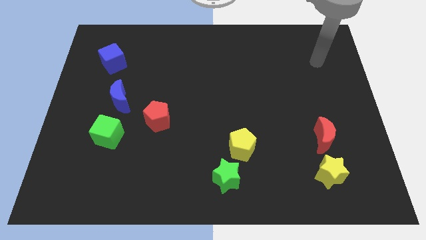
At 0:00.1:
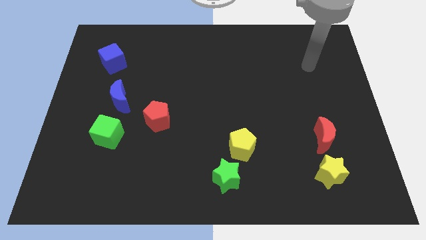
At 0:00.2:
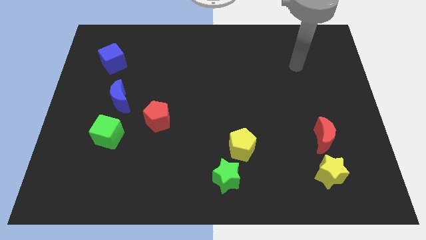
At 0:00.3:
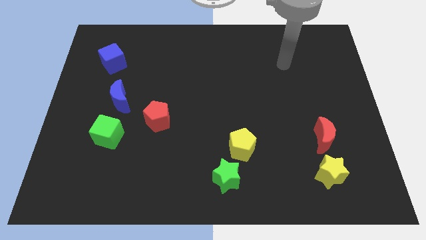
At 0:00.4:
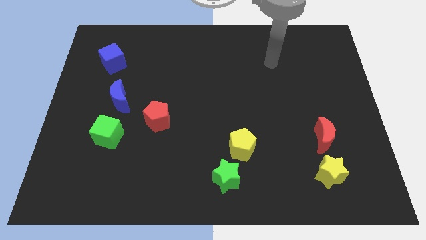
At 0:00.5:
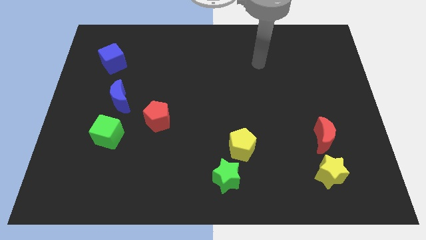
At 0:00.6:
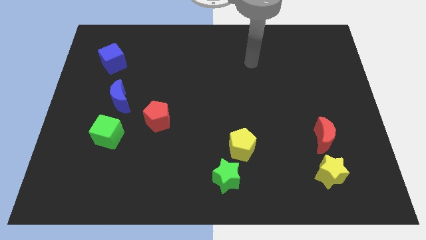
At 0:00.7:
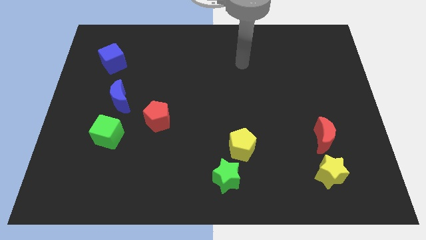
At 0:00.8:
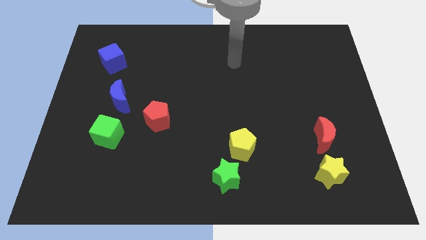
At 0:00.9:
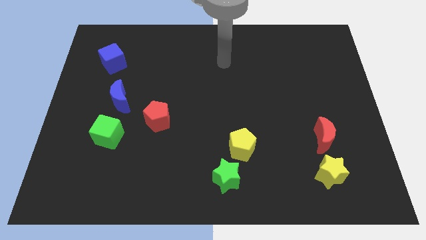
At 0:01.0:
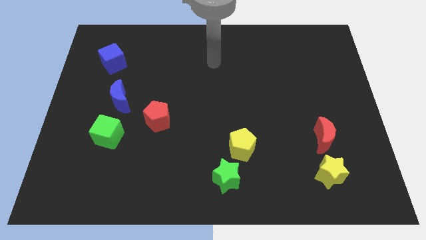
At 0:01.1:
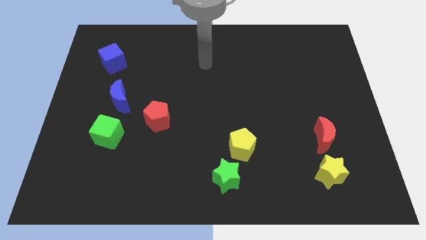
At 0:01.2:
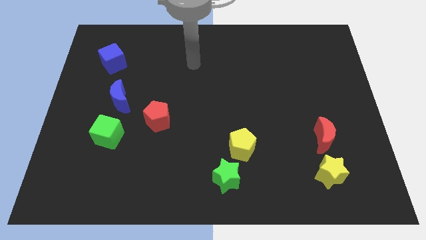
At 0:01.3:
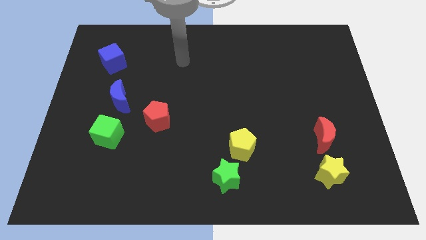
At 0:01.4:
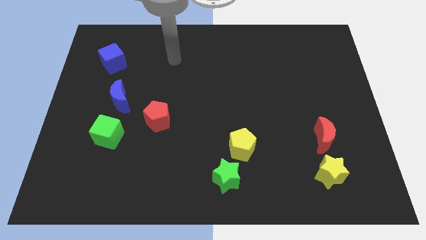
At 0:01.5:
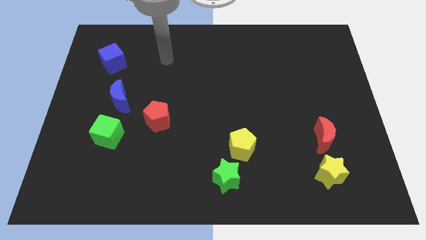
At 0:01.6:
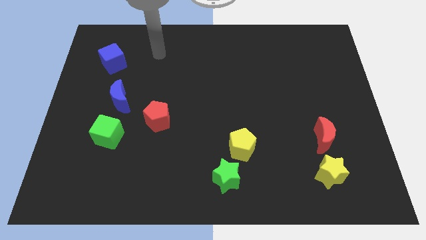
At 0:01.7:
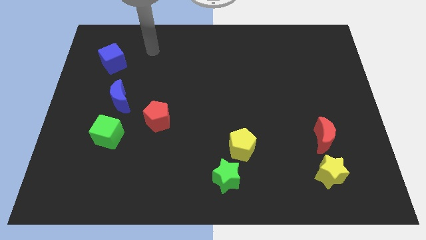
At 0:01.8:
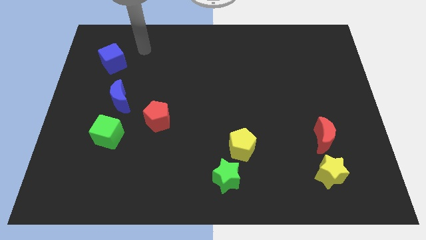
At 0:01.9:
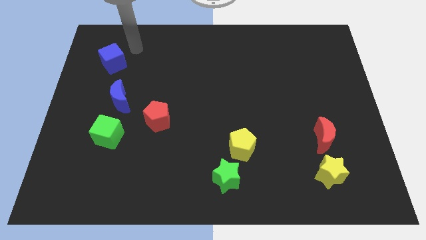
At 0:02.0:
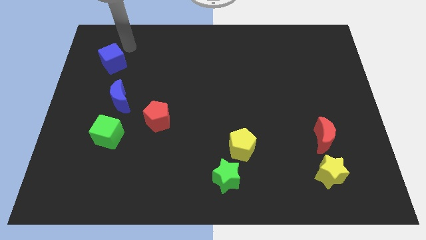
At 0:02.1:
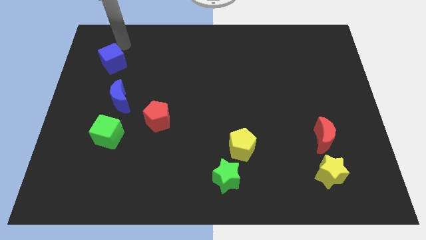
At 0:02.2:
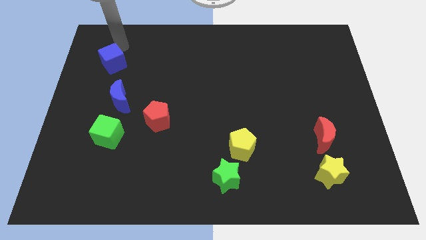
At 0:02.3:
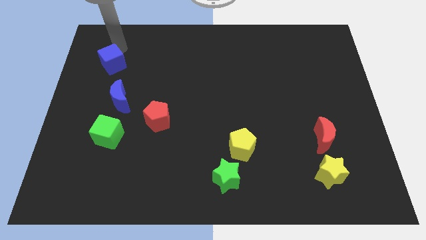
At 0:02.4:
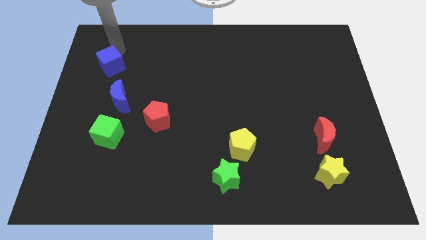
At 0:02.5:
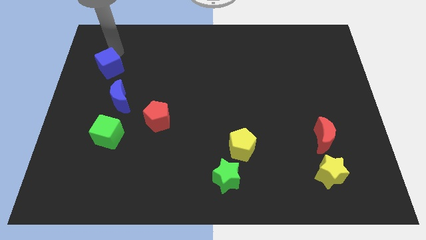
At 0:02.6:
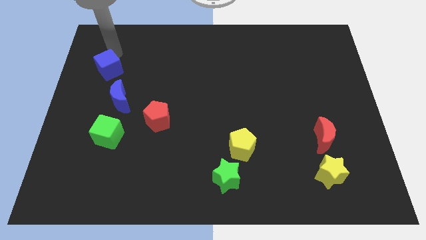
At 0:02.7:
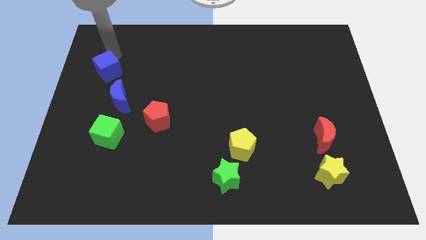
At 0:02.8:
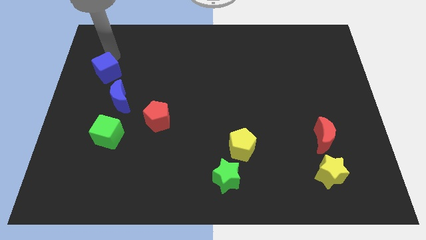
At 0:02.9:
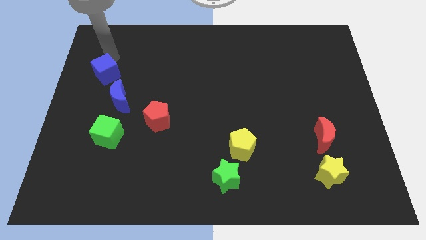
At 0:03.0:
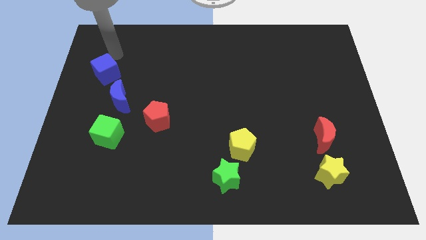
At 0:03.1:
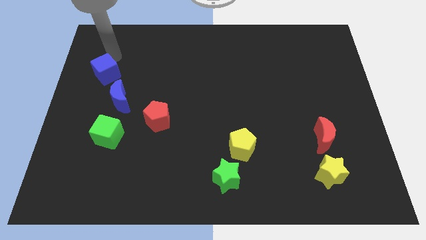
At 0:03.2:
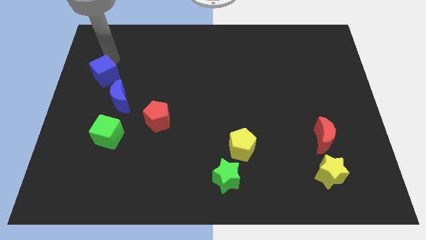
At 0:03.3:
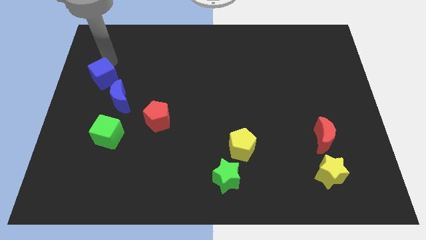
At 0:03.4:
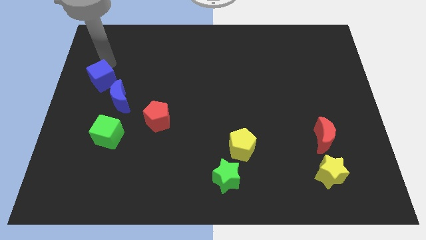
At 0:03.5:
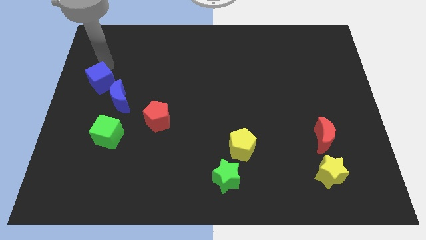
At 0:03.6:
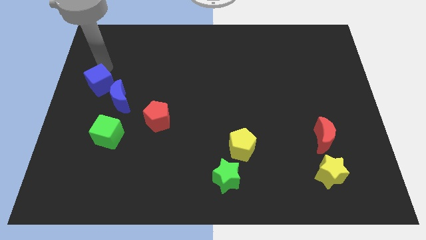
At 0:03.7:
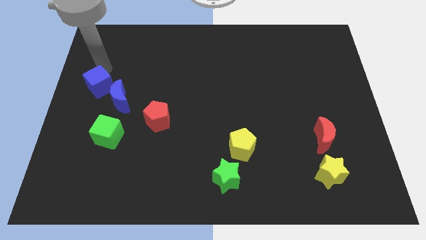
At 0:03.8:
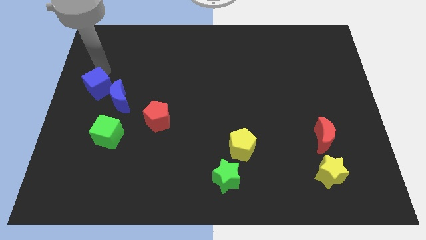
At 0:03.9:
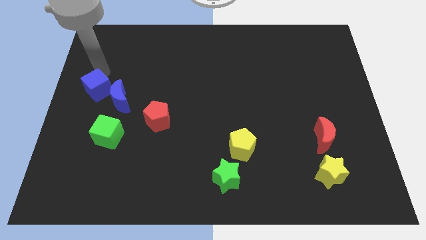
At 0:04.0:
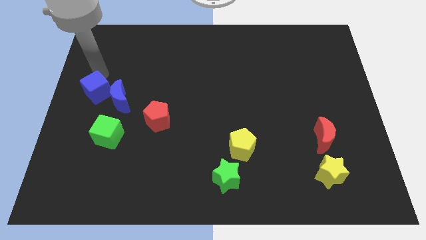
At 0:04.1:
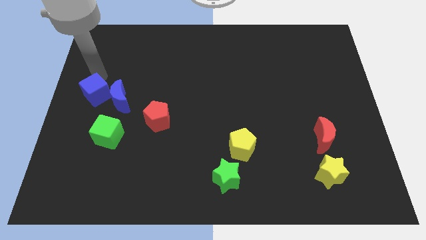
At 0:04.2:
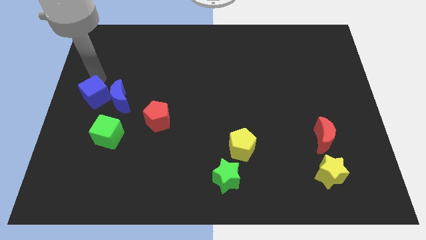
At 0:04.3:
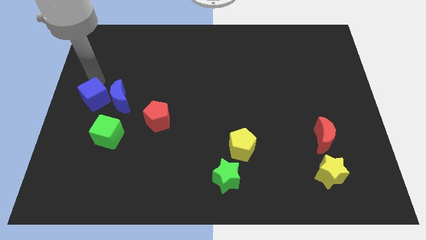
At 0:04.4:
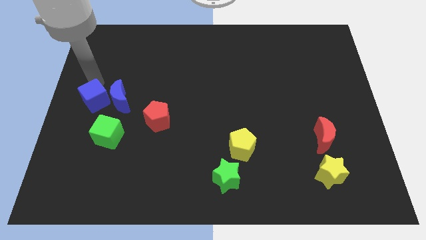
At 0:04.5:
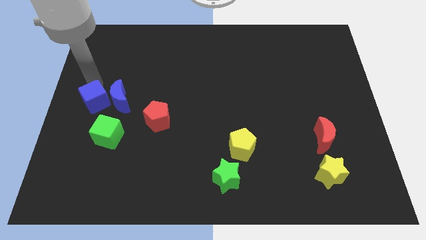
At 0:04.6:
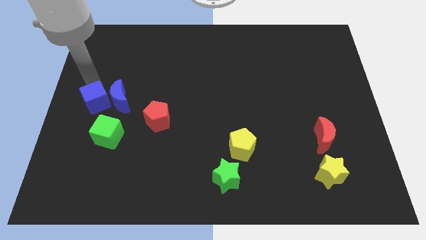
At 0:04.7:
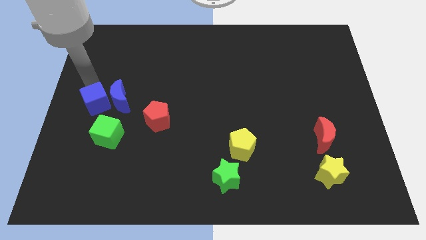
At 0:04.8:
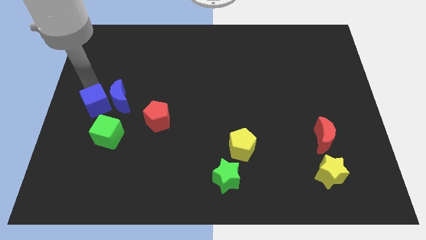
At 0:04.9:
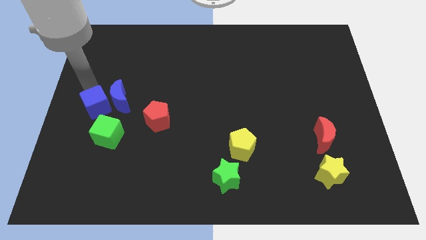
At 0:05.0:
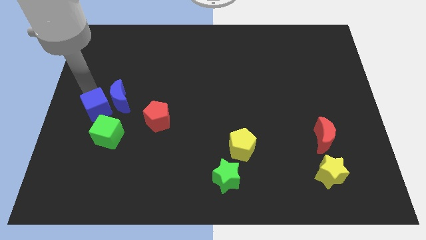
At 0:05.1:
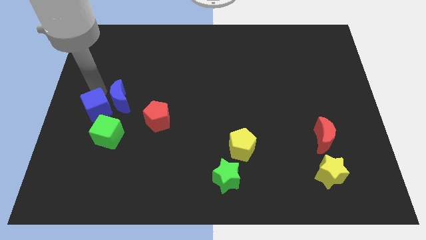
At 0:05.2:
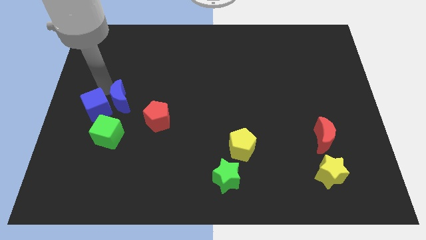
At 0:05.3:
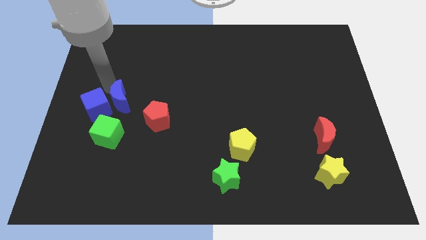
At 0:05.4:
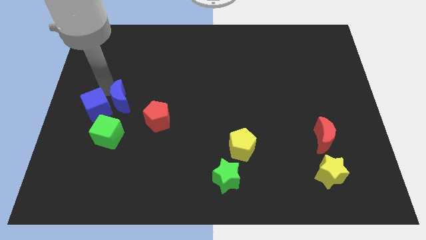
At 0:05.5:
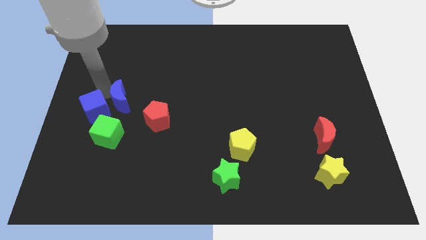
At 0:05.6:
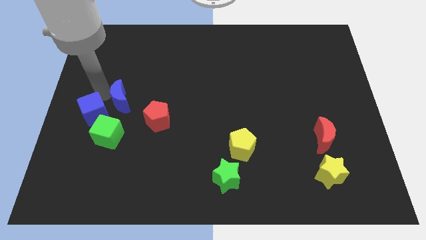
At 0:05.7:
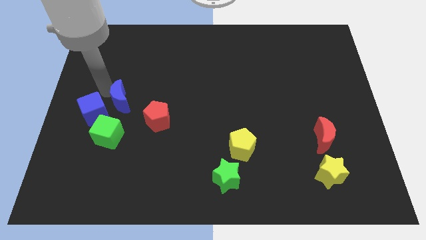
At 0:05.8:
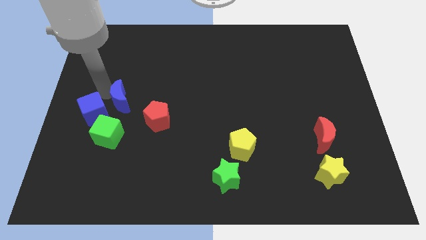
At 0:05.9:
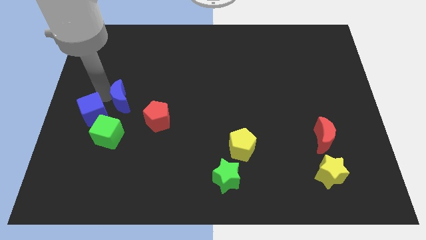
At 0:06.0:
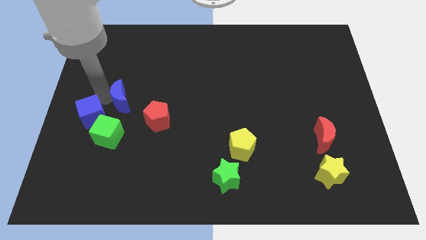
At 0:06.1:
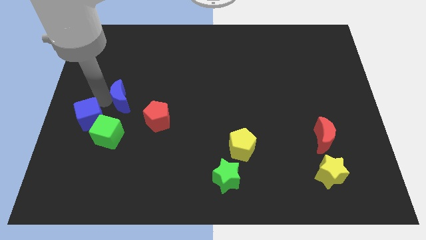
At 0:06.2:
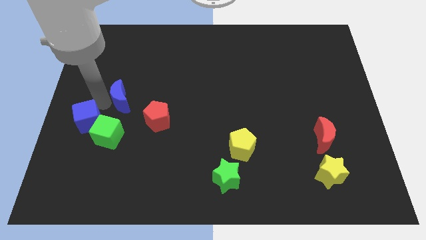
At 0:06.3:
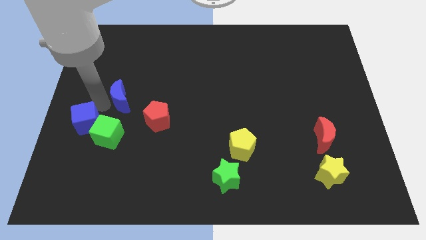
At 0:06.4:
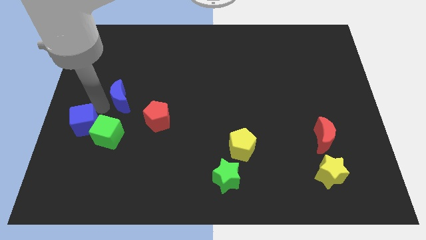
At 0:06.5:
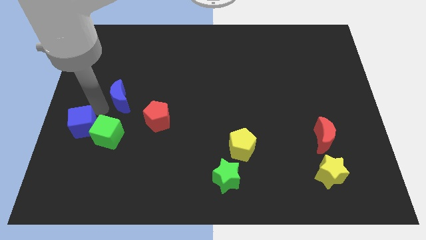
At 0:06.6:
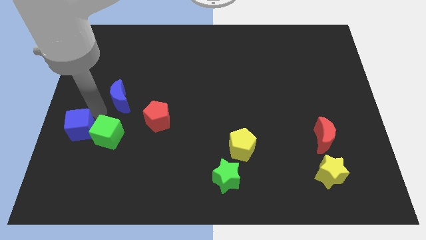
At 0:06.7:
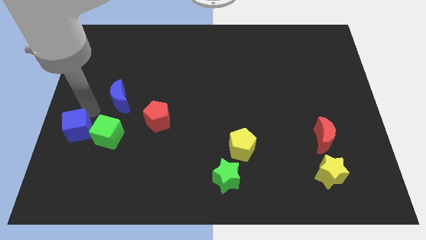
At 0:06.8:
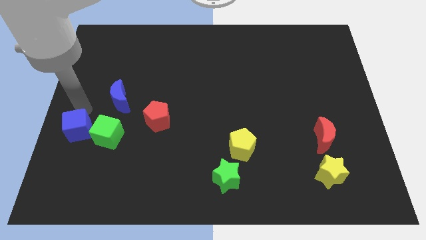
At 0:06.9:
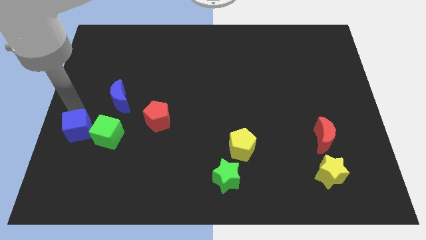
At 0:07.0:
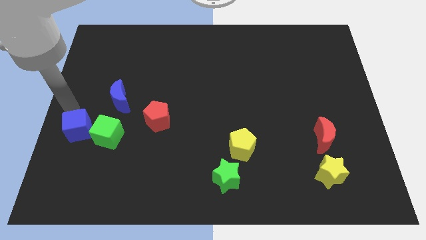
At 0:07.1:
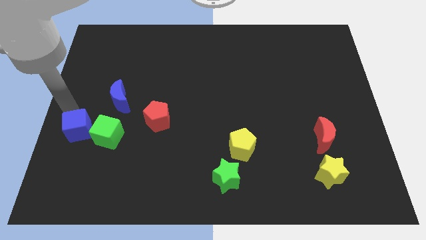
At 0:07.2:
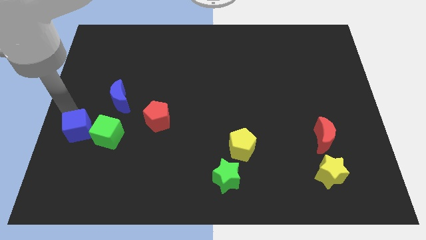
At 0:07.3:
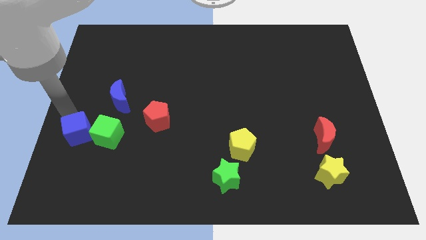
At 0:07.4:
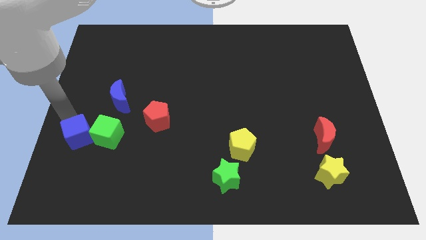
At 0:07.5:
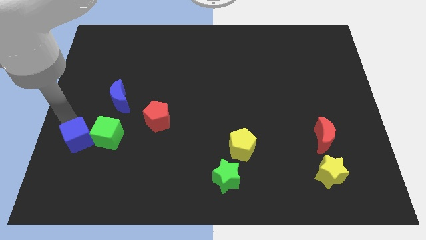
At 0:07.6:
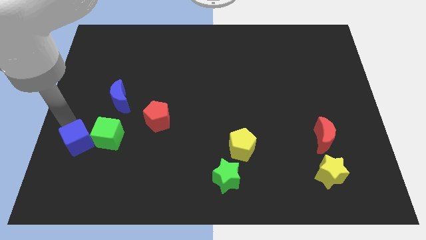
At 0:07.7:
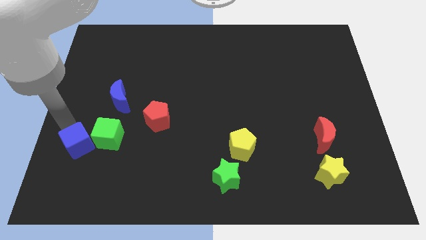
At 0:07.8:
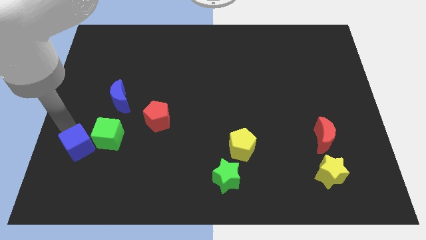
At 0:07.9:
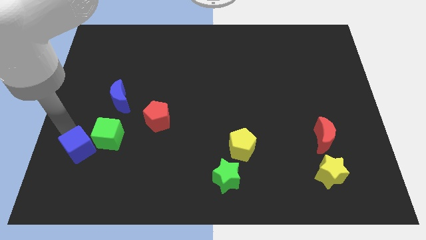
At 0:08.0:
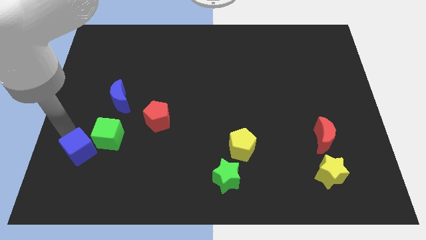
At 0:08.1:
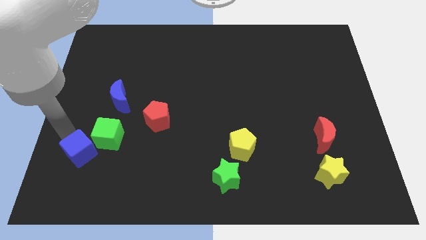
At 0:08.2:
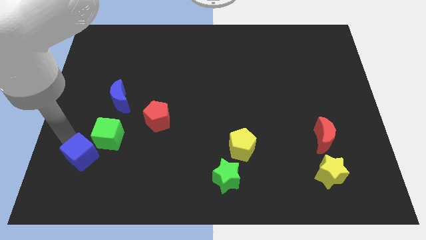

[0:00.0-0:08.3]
put the blue cube below the green cube
